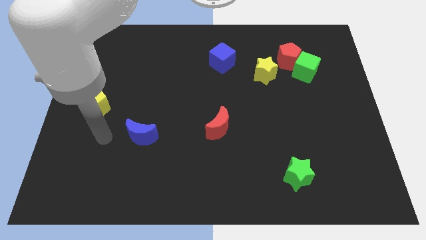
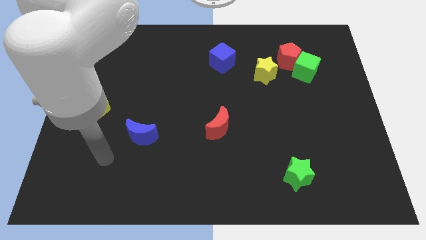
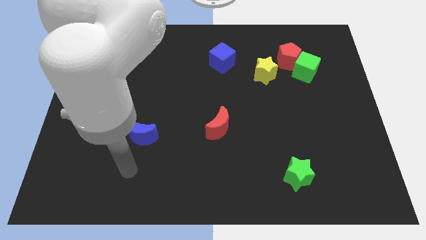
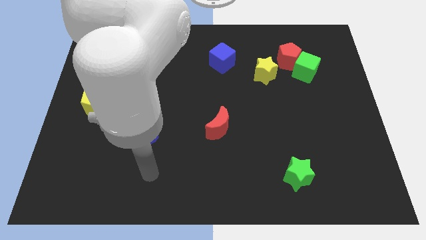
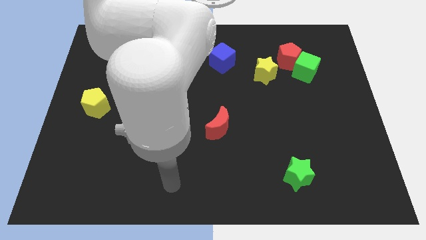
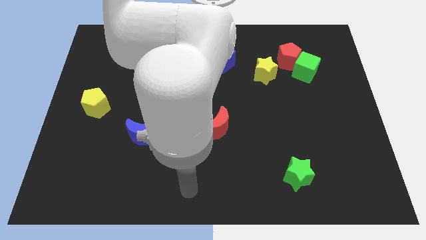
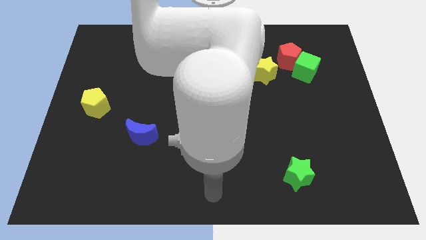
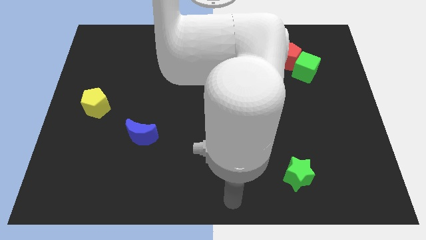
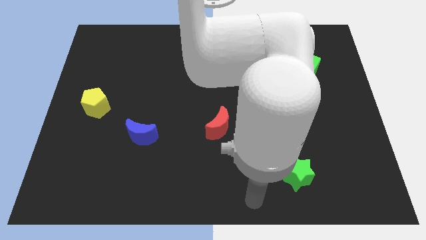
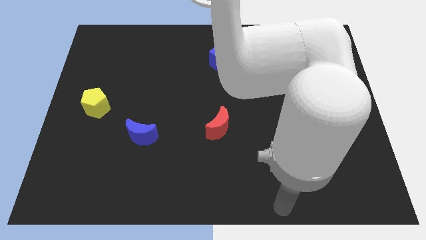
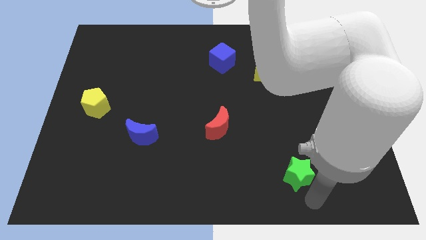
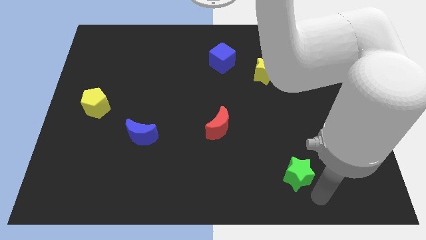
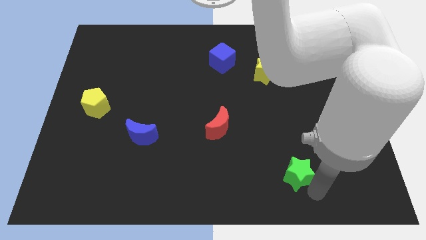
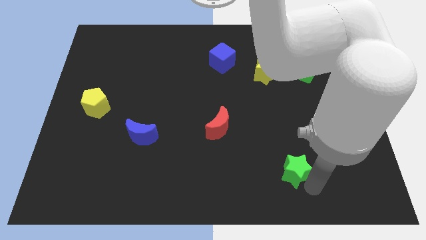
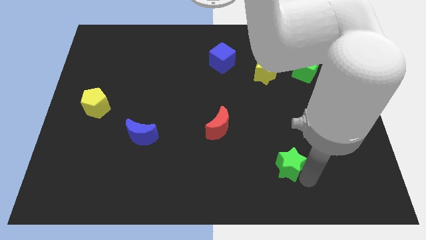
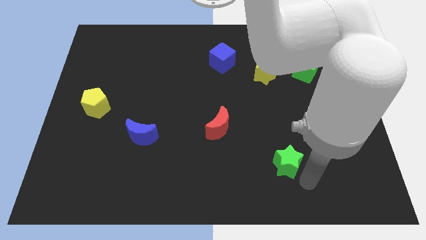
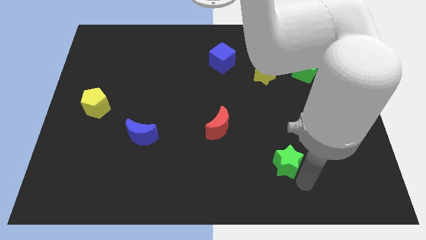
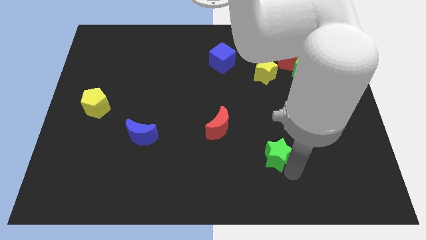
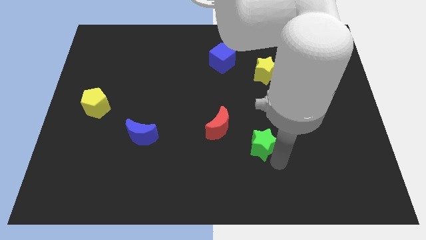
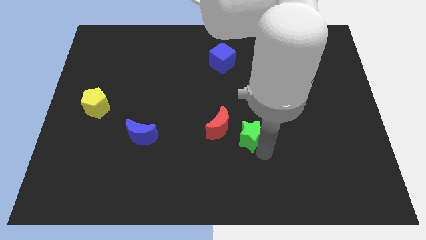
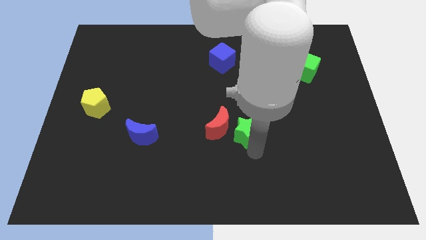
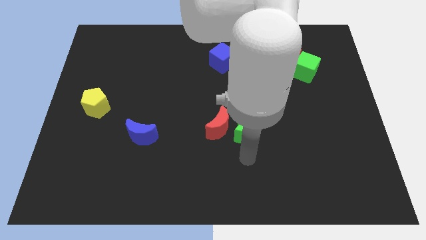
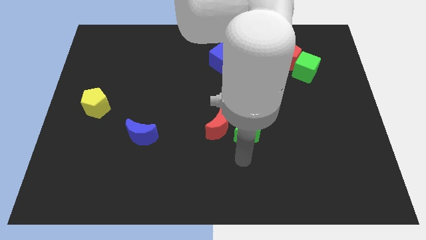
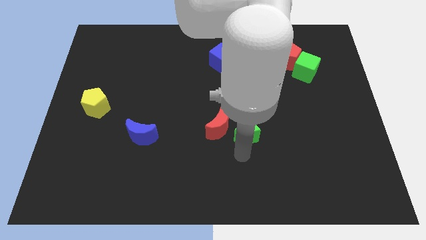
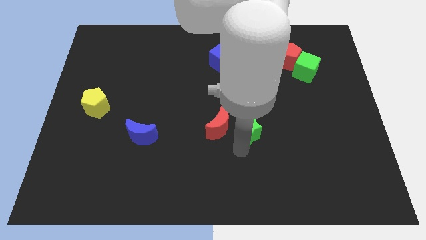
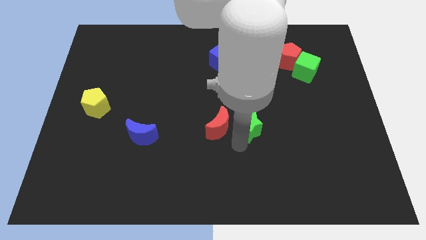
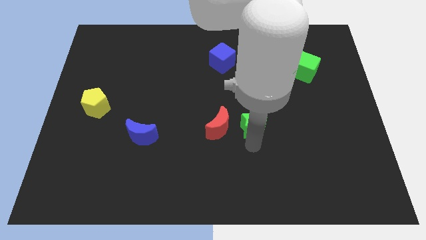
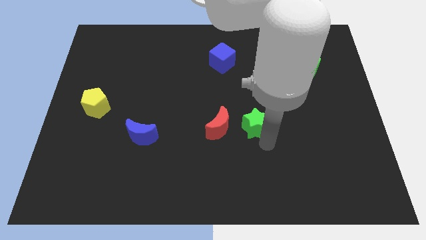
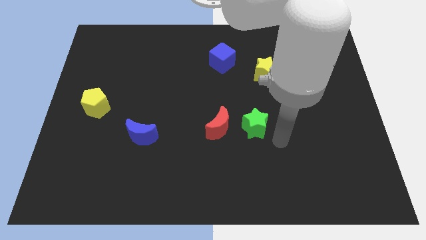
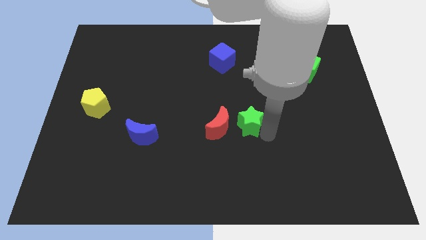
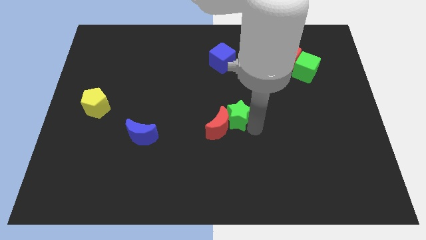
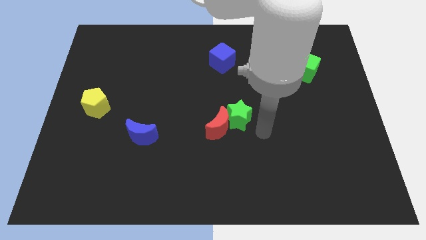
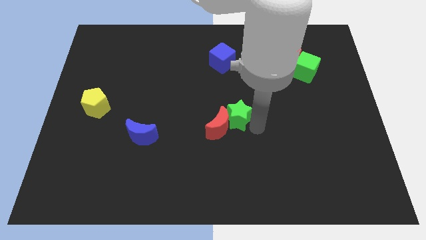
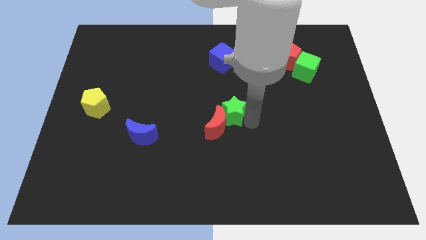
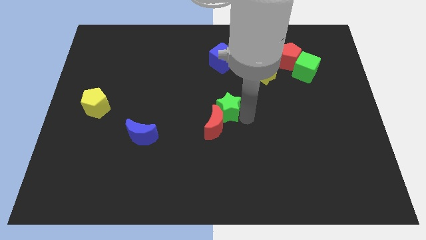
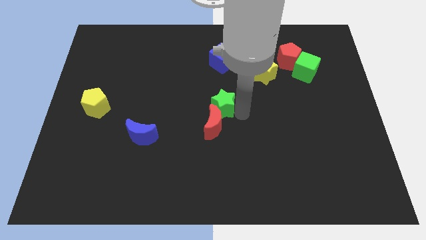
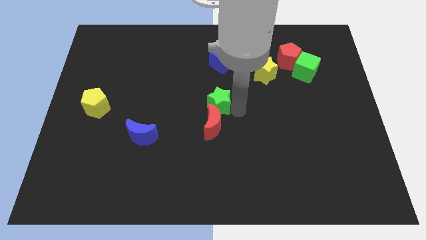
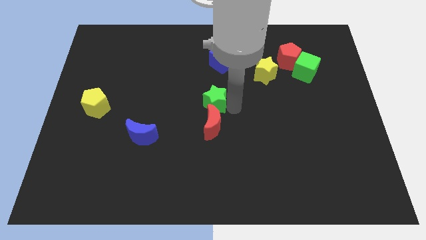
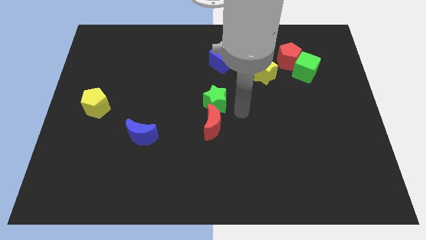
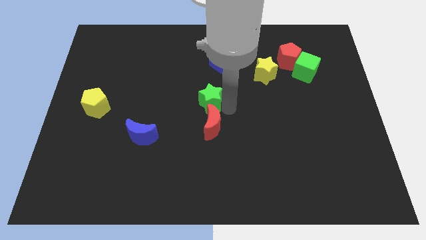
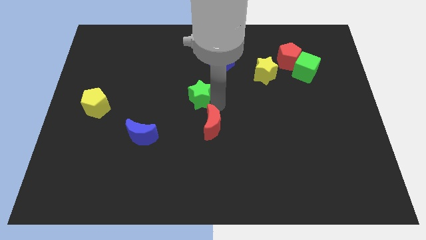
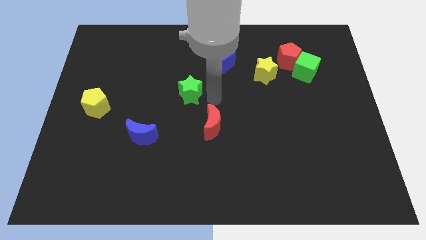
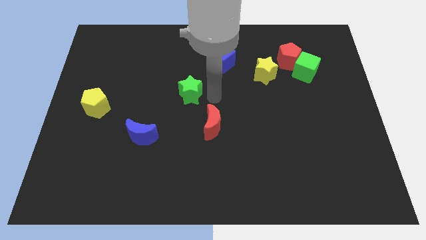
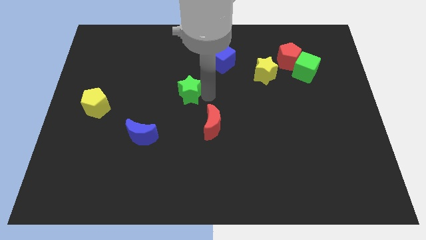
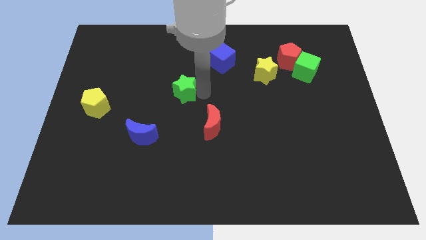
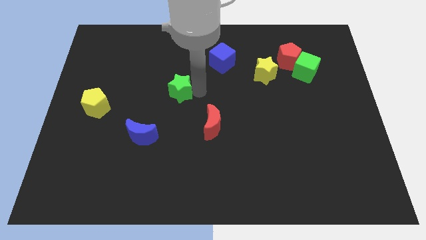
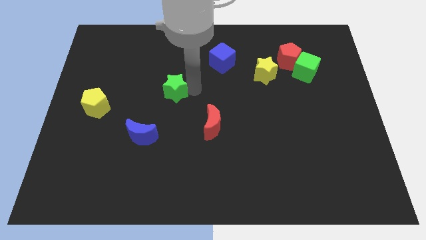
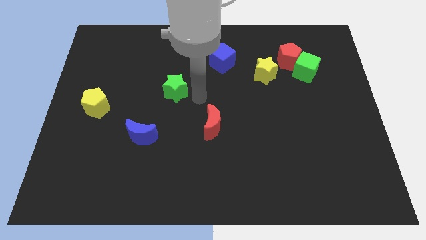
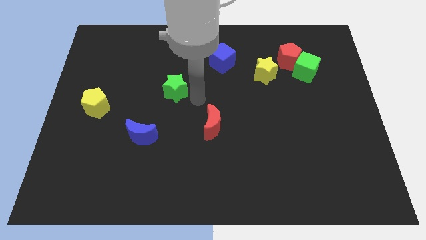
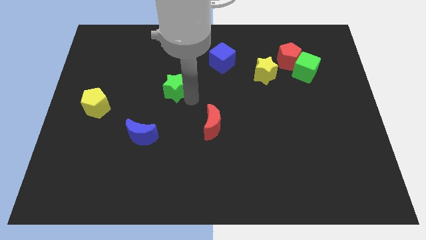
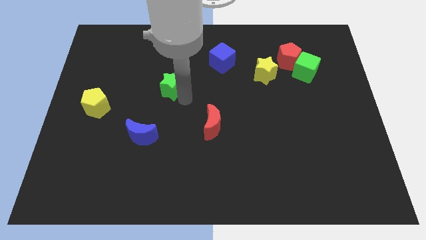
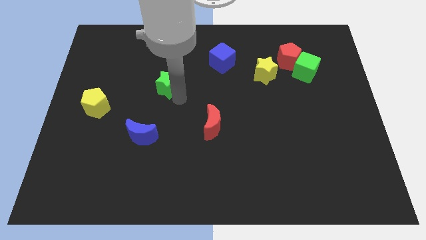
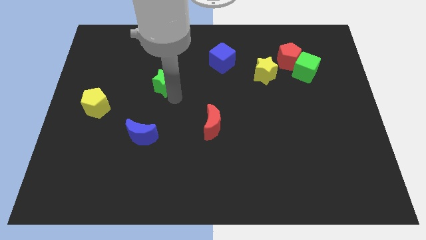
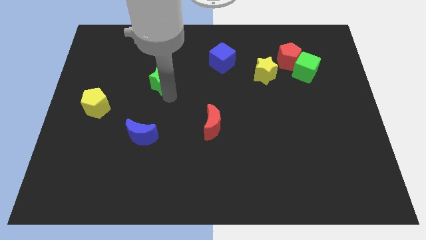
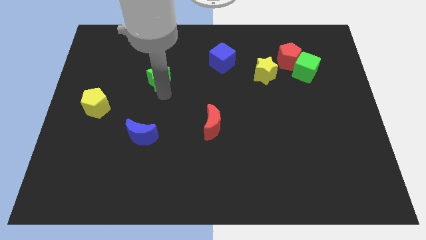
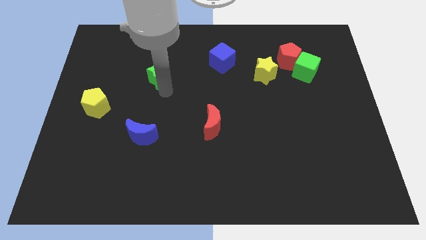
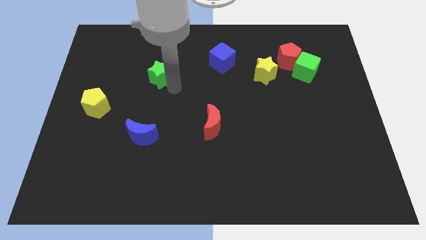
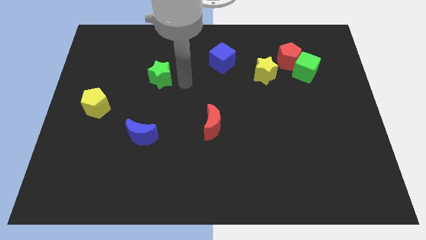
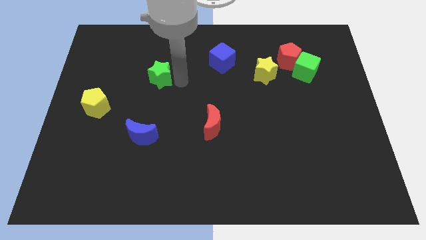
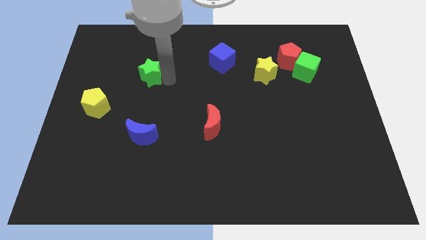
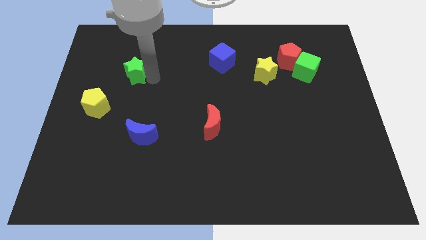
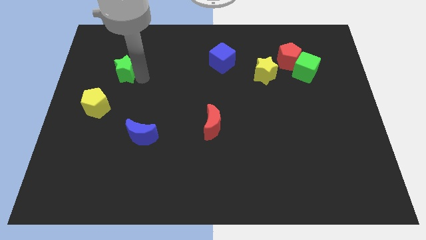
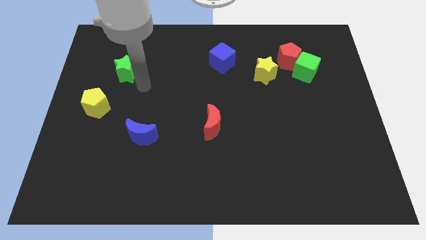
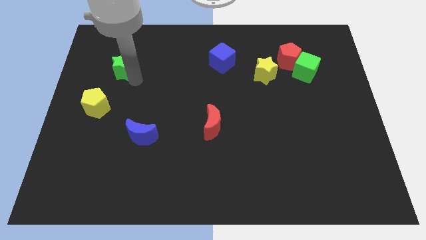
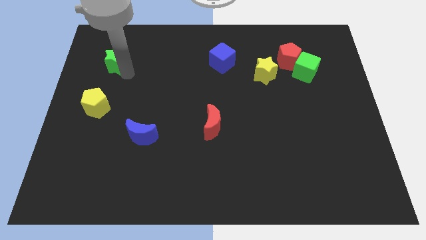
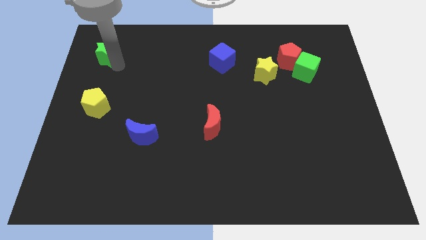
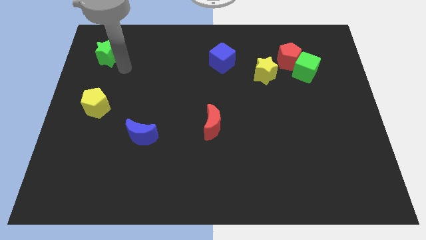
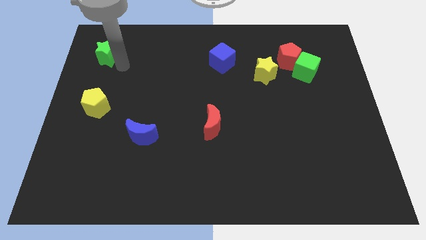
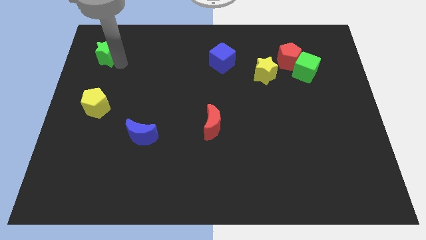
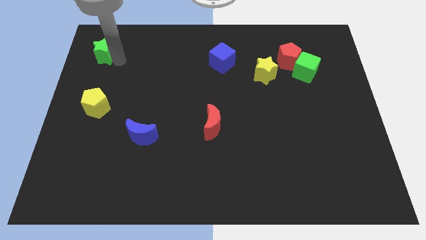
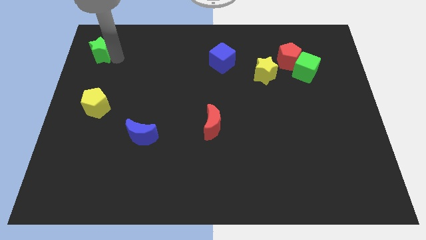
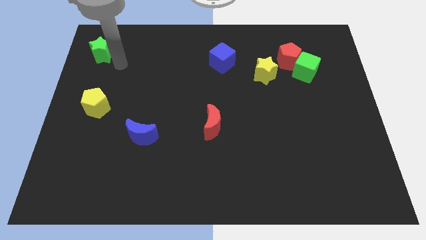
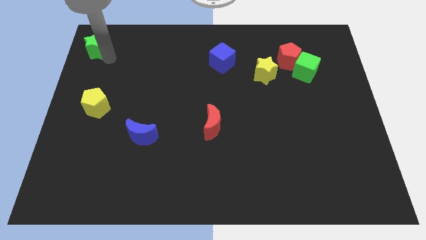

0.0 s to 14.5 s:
push the green star to the top left
